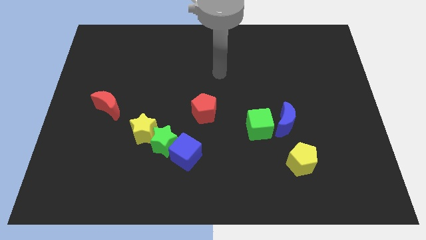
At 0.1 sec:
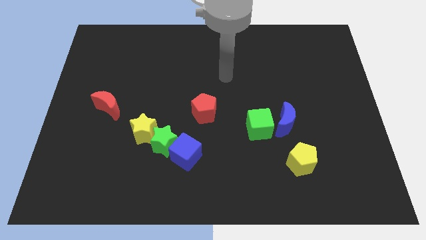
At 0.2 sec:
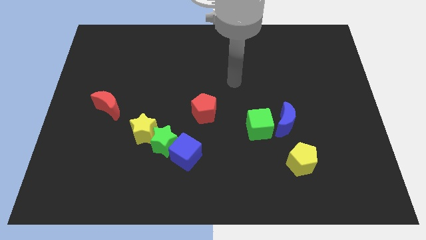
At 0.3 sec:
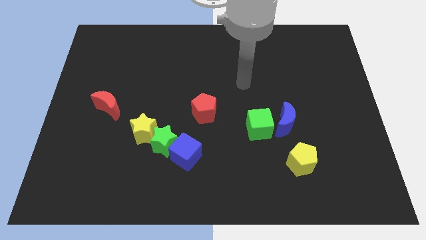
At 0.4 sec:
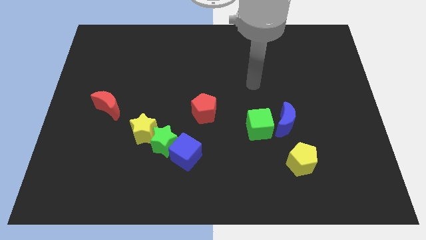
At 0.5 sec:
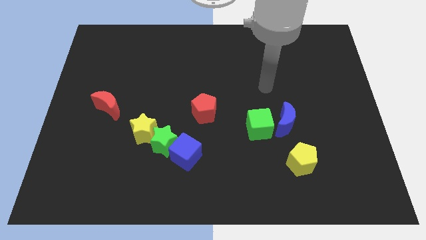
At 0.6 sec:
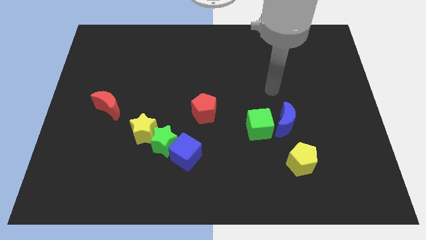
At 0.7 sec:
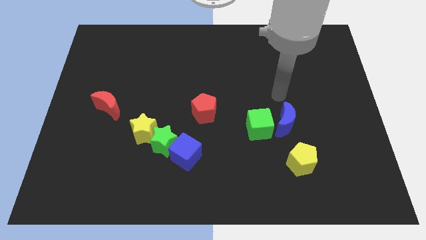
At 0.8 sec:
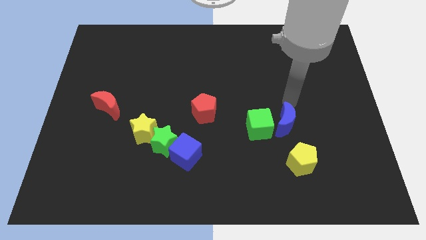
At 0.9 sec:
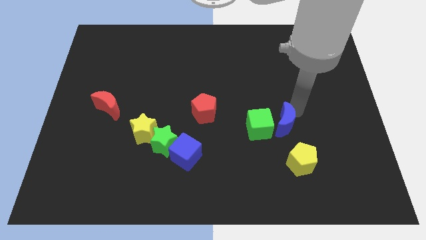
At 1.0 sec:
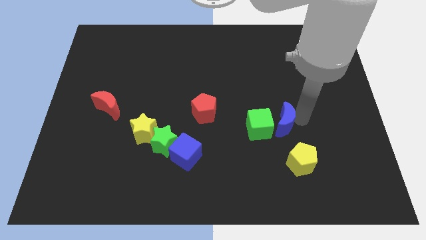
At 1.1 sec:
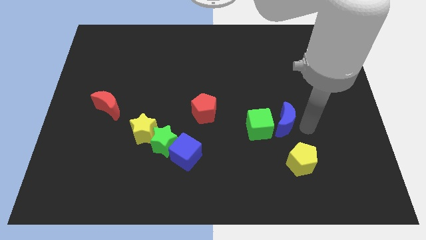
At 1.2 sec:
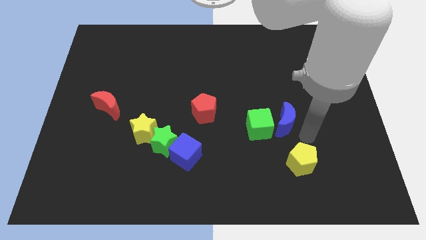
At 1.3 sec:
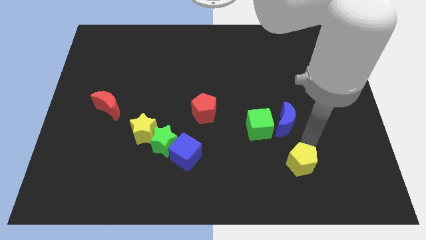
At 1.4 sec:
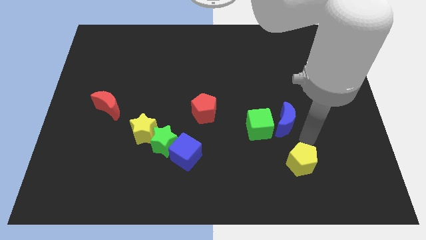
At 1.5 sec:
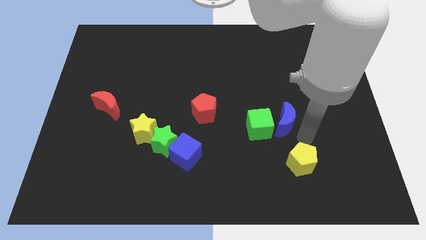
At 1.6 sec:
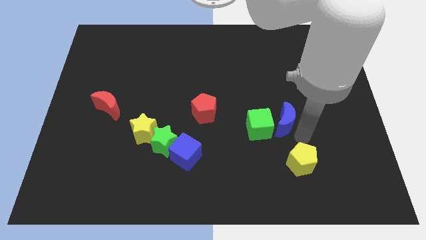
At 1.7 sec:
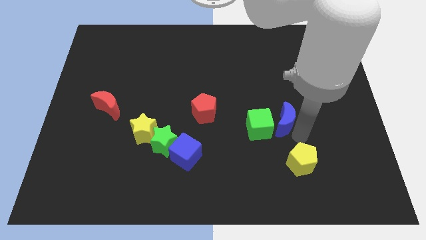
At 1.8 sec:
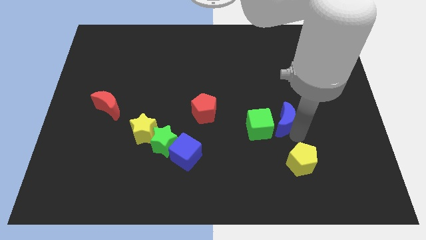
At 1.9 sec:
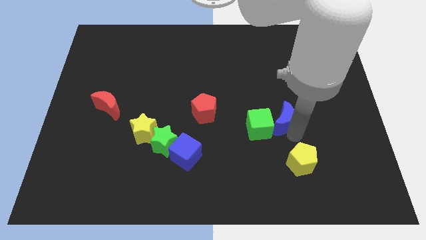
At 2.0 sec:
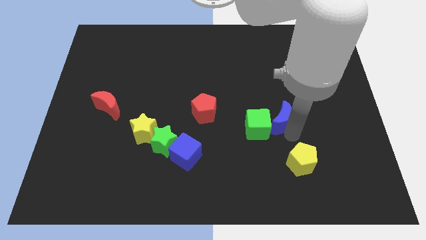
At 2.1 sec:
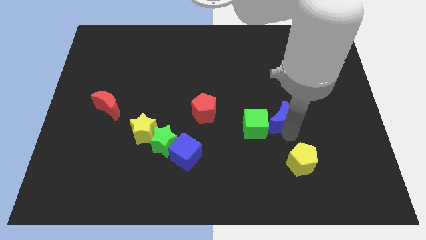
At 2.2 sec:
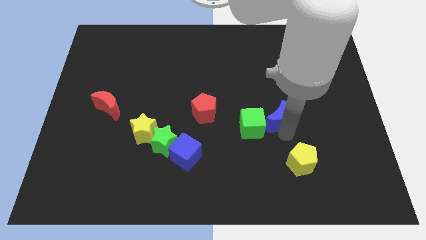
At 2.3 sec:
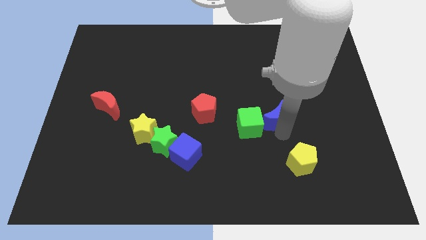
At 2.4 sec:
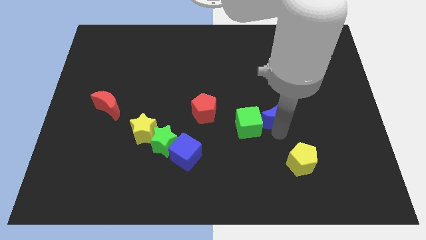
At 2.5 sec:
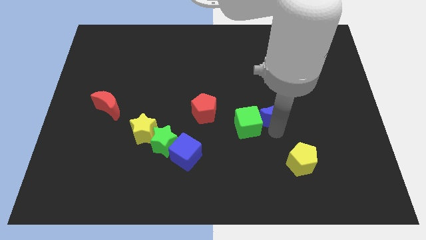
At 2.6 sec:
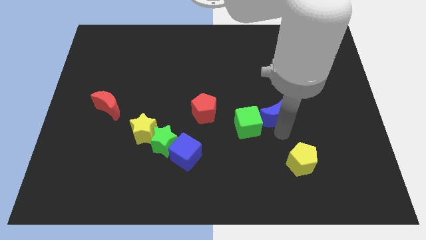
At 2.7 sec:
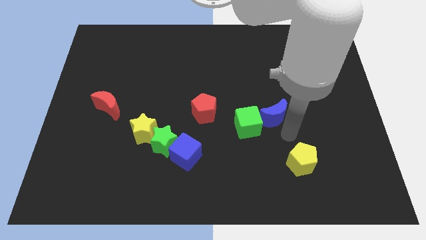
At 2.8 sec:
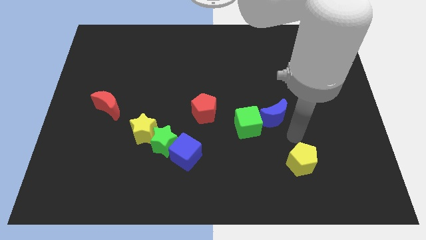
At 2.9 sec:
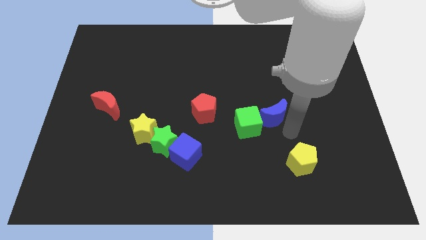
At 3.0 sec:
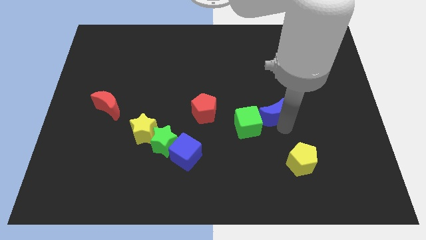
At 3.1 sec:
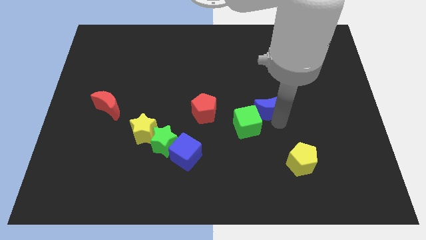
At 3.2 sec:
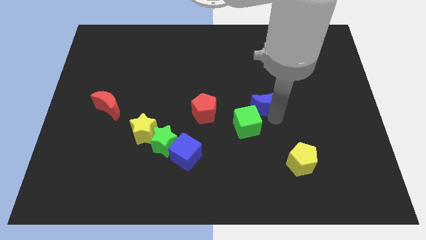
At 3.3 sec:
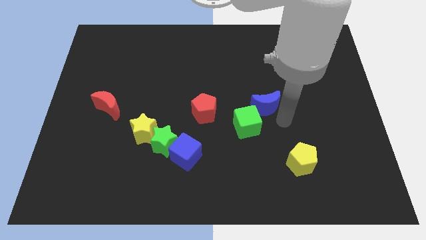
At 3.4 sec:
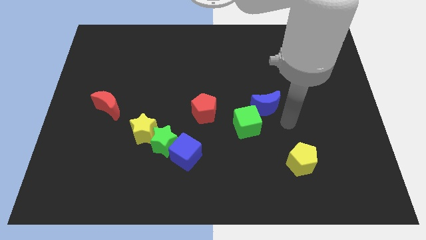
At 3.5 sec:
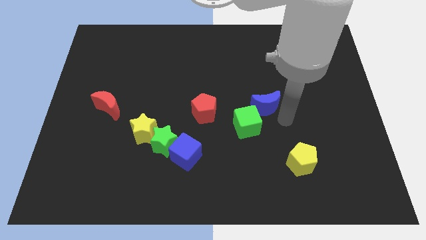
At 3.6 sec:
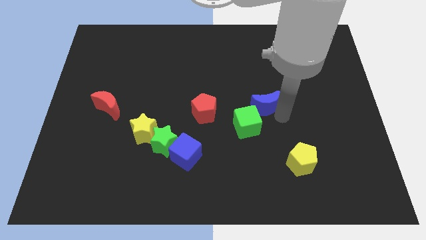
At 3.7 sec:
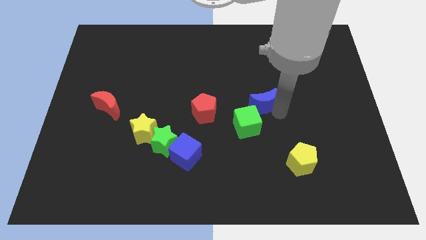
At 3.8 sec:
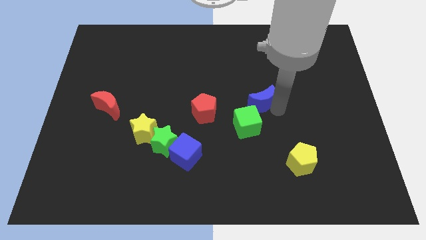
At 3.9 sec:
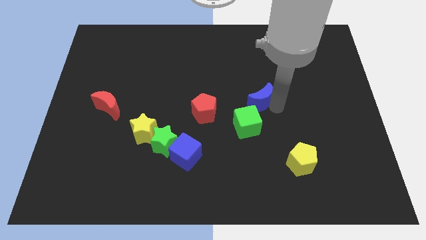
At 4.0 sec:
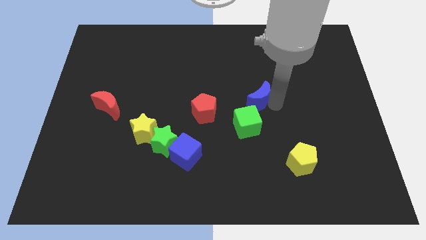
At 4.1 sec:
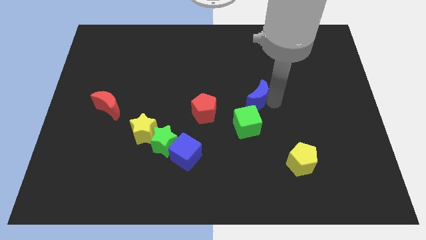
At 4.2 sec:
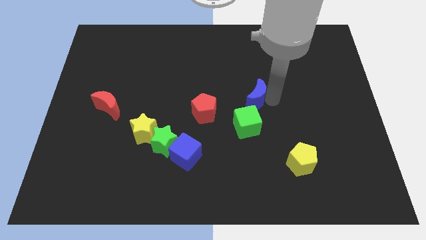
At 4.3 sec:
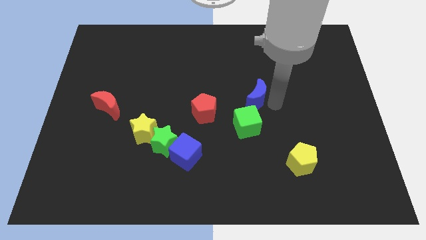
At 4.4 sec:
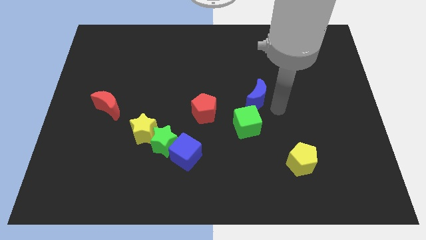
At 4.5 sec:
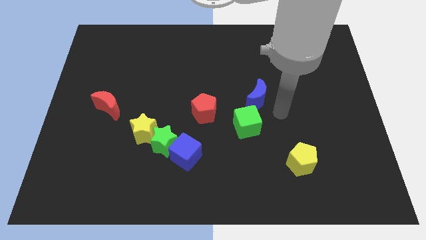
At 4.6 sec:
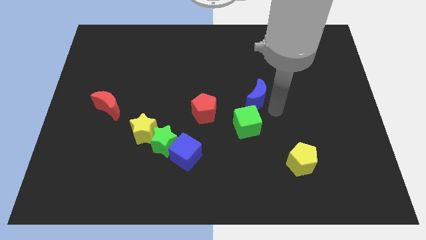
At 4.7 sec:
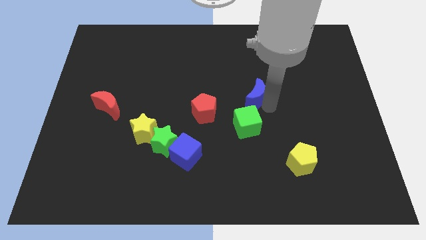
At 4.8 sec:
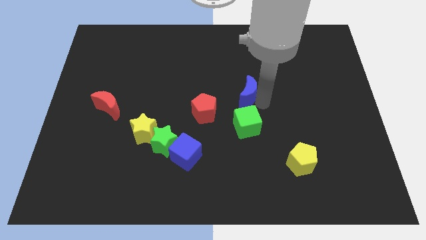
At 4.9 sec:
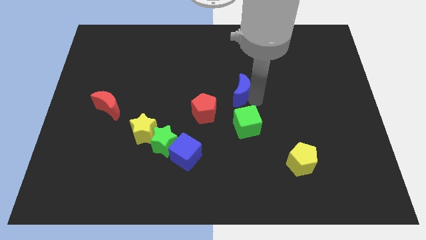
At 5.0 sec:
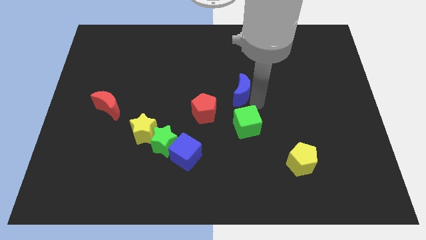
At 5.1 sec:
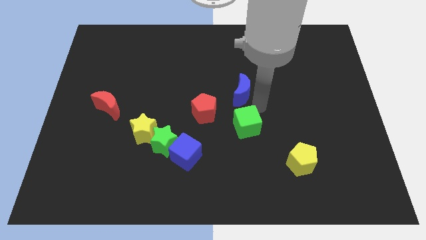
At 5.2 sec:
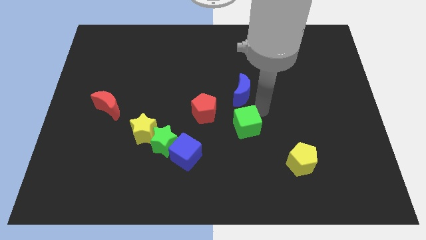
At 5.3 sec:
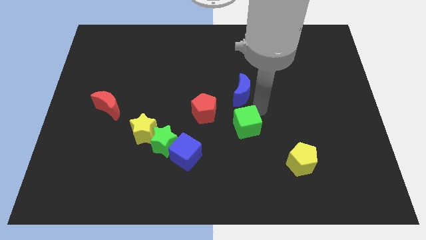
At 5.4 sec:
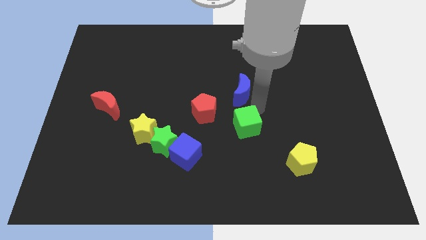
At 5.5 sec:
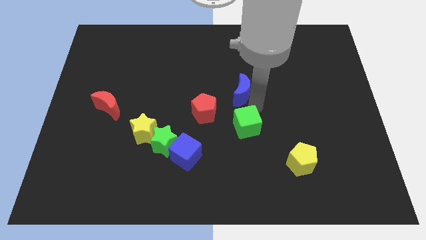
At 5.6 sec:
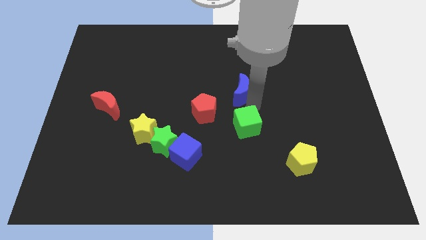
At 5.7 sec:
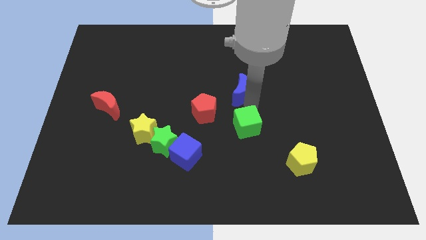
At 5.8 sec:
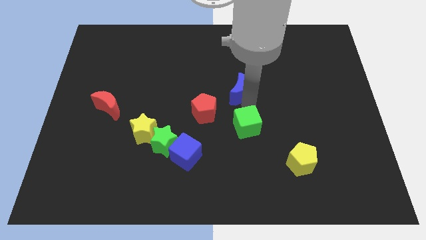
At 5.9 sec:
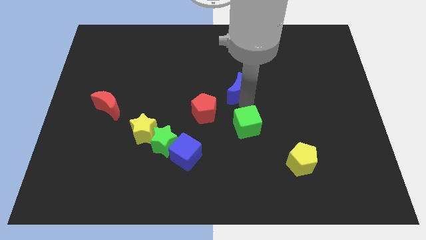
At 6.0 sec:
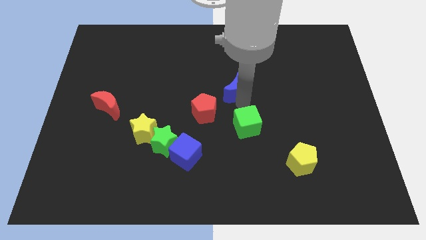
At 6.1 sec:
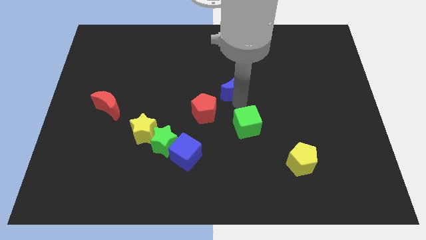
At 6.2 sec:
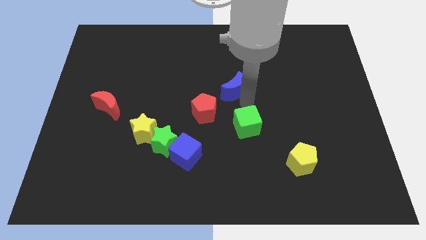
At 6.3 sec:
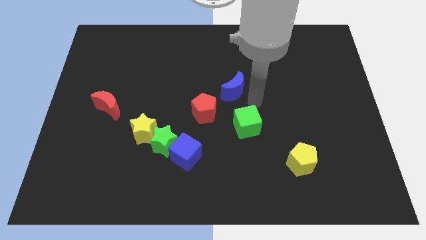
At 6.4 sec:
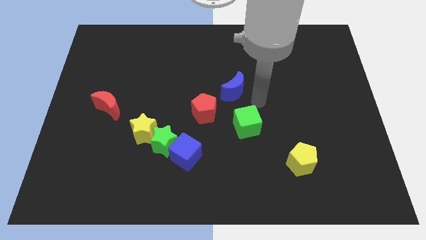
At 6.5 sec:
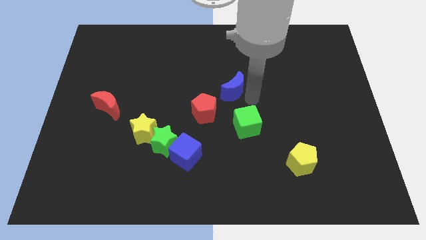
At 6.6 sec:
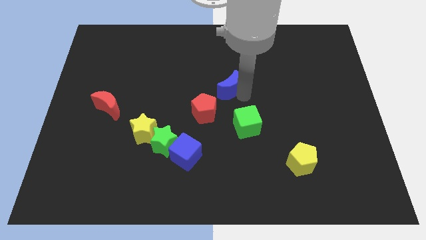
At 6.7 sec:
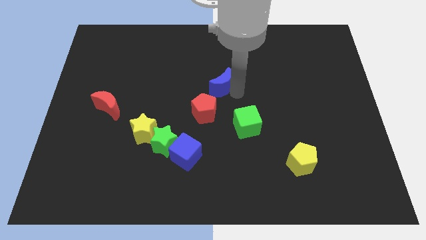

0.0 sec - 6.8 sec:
move the blue moon to the top of the red pentagon

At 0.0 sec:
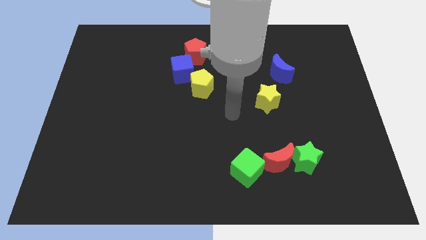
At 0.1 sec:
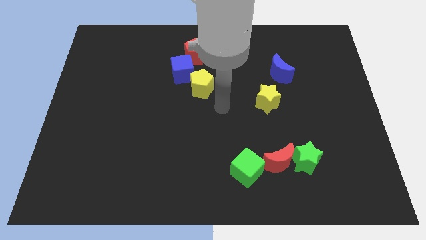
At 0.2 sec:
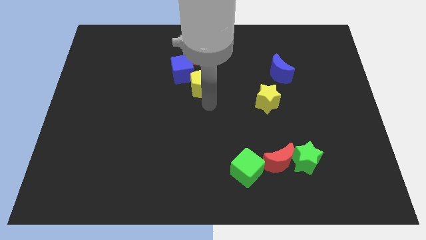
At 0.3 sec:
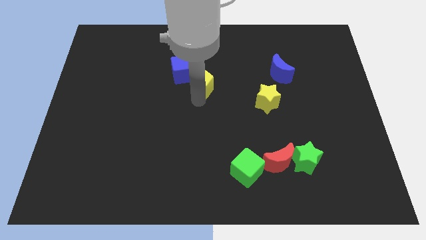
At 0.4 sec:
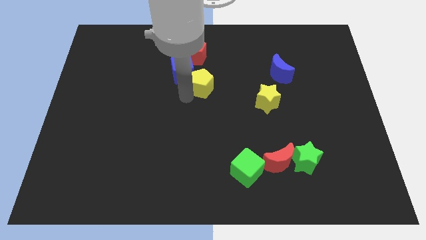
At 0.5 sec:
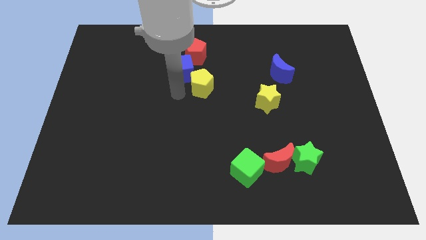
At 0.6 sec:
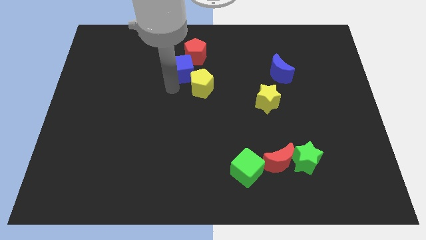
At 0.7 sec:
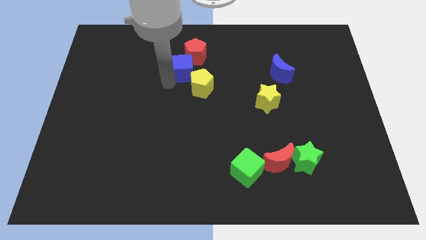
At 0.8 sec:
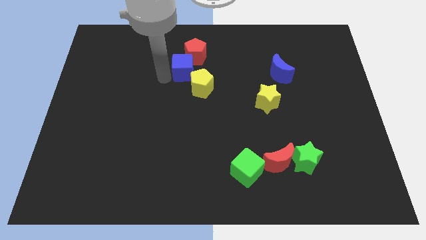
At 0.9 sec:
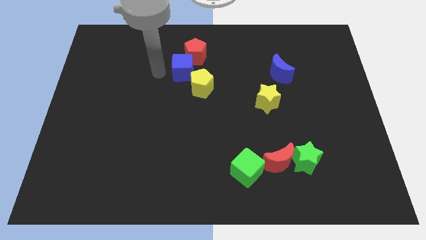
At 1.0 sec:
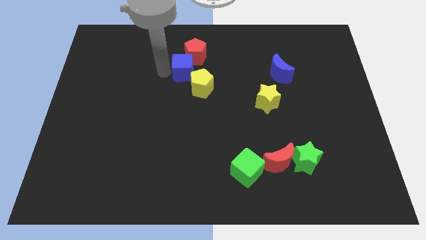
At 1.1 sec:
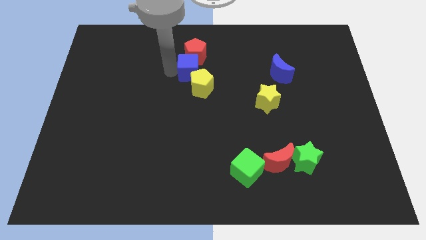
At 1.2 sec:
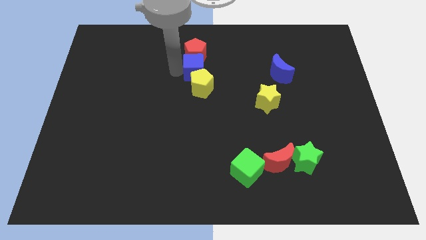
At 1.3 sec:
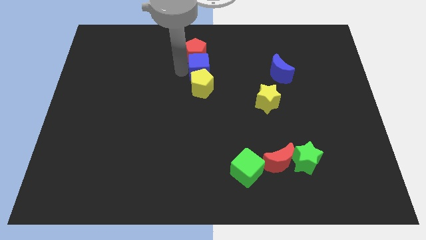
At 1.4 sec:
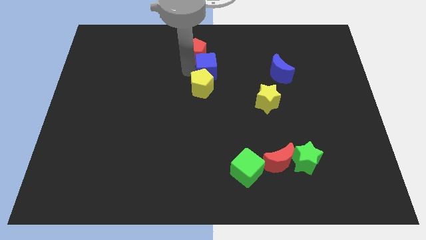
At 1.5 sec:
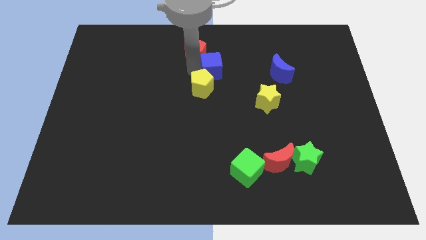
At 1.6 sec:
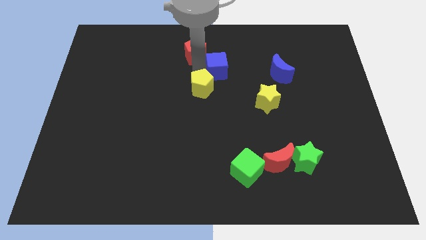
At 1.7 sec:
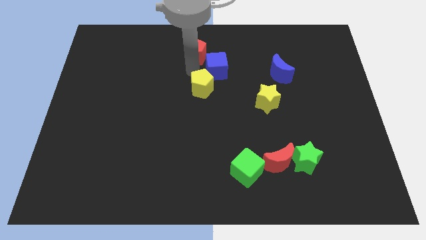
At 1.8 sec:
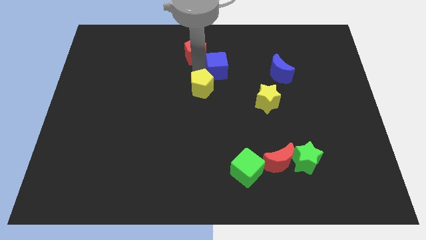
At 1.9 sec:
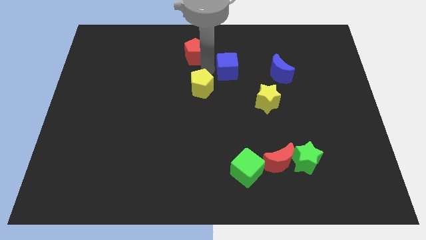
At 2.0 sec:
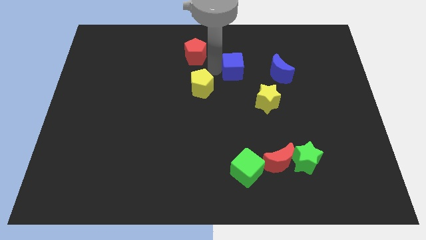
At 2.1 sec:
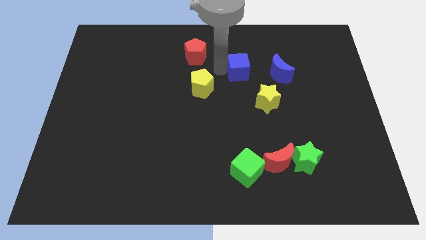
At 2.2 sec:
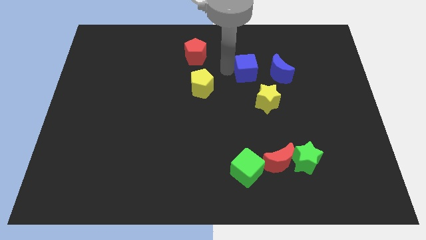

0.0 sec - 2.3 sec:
slide the blue cube to the top side of the yellow star
